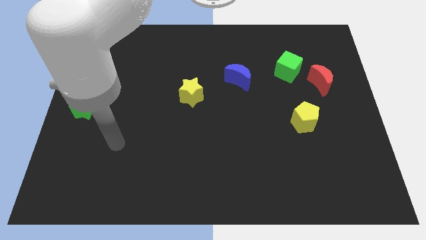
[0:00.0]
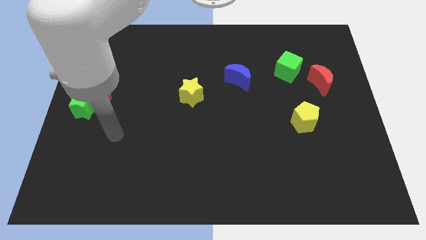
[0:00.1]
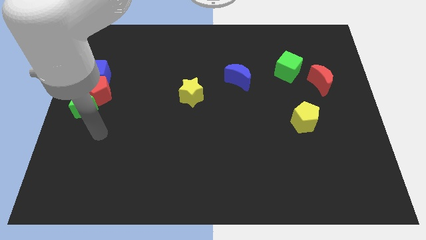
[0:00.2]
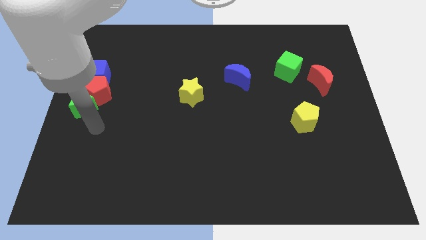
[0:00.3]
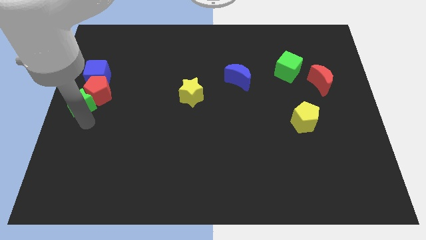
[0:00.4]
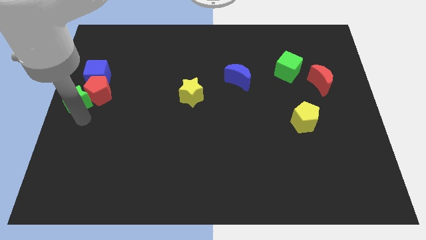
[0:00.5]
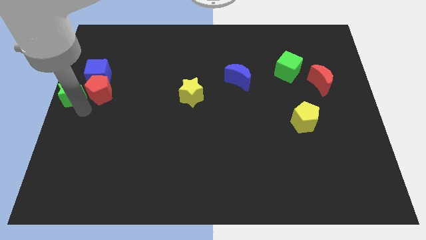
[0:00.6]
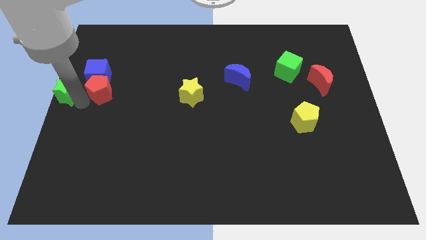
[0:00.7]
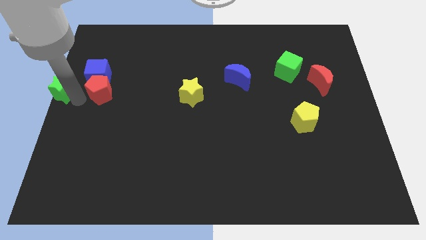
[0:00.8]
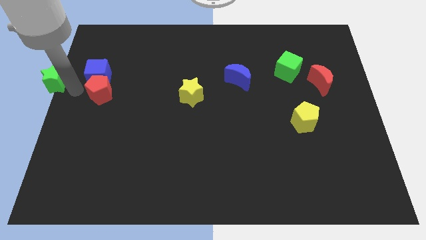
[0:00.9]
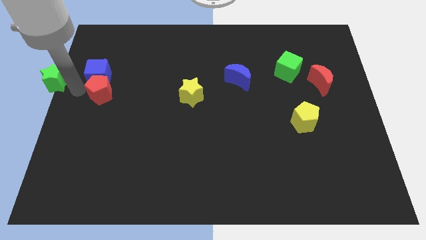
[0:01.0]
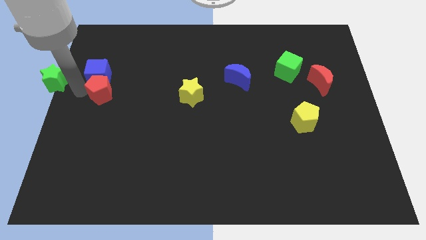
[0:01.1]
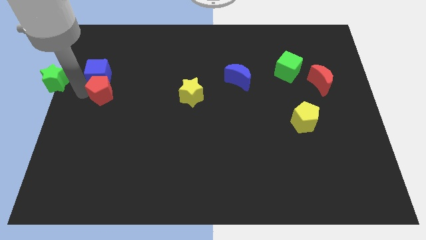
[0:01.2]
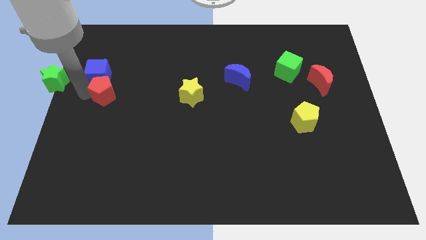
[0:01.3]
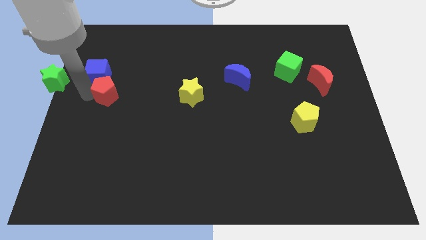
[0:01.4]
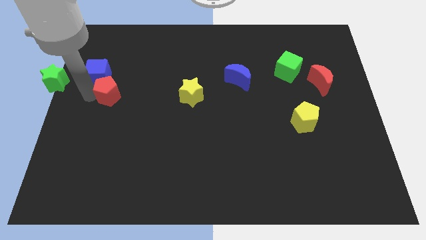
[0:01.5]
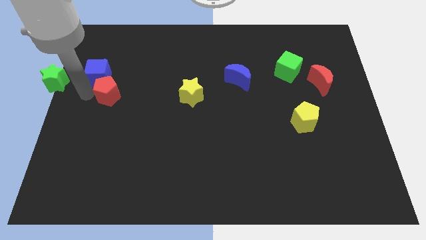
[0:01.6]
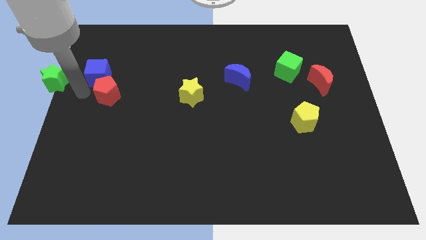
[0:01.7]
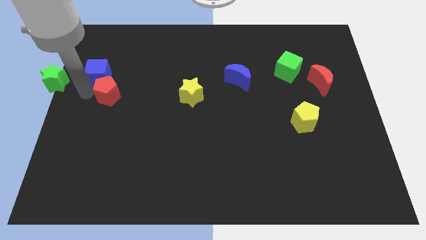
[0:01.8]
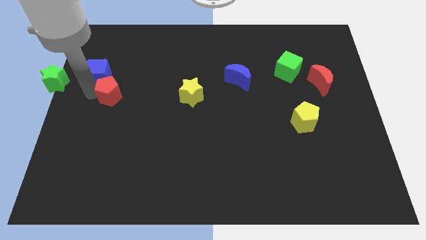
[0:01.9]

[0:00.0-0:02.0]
pull the red pentagon apart from the green star and blue cube

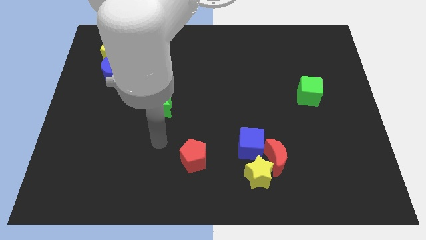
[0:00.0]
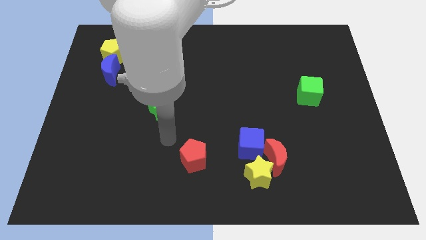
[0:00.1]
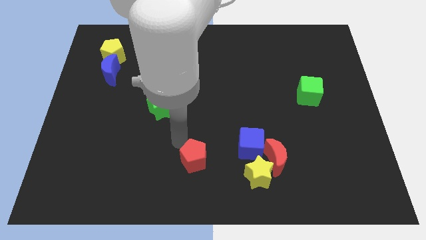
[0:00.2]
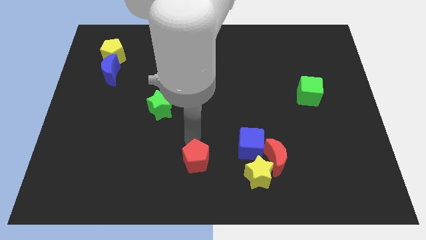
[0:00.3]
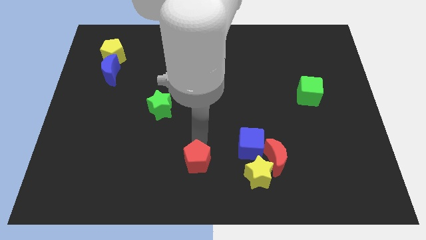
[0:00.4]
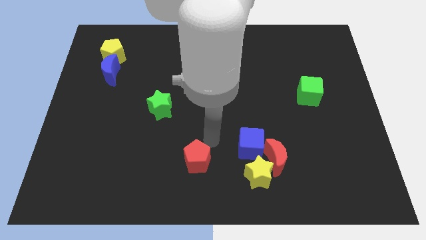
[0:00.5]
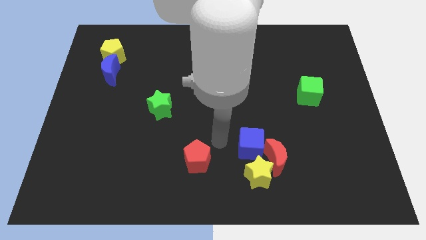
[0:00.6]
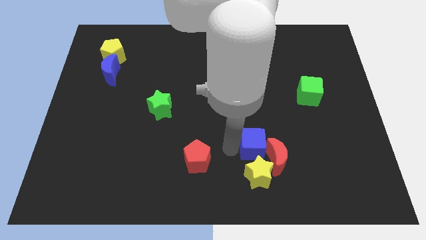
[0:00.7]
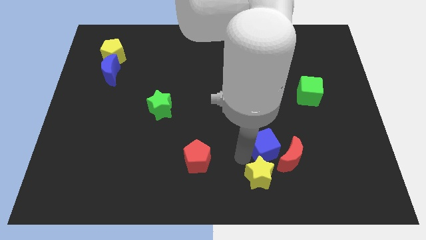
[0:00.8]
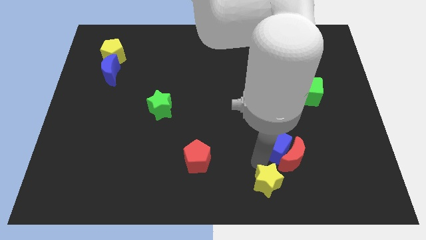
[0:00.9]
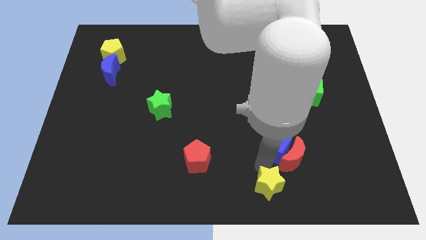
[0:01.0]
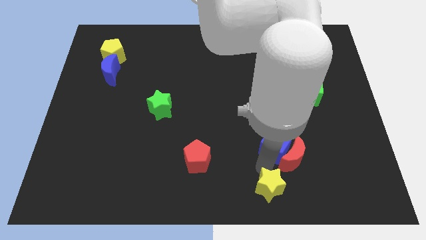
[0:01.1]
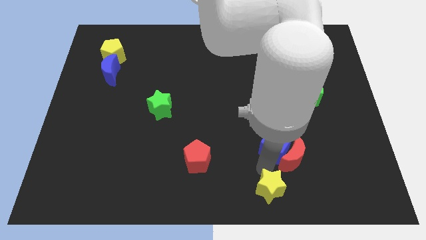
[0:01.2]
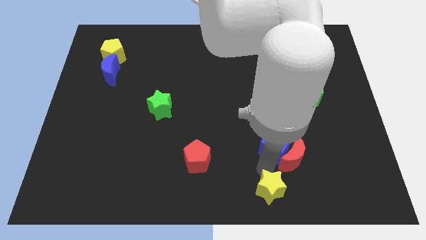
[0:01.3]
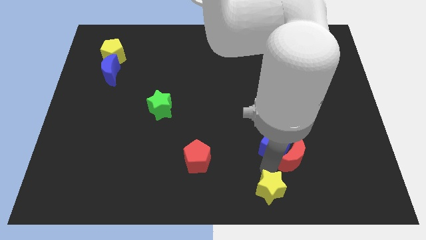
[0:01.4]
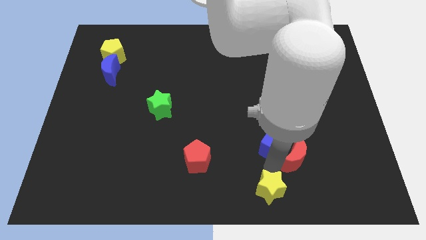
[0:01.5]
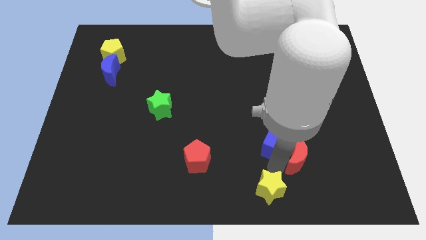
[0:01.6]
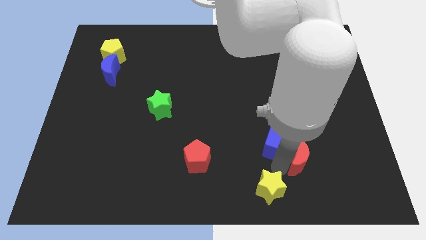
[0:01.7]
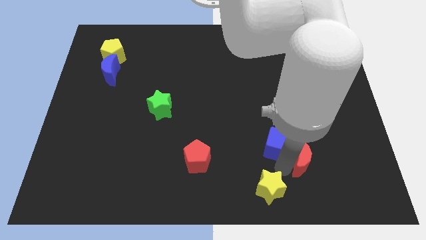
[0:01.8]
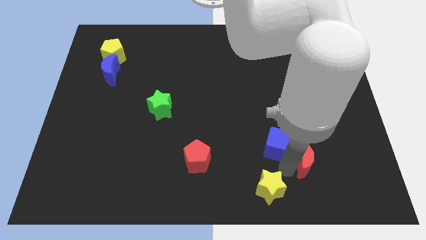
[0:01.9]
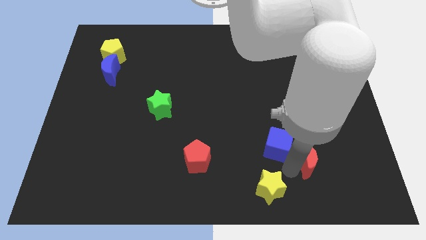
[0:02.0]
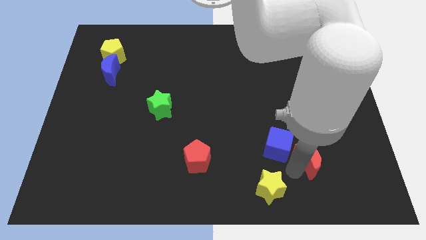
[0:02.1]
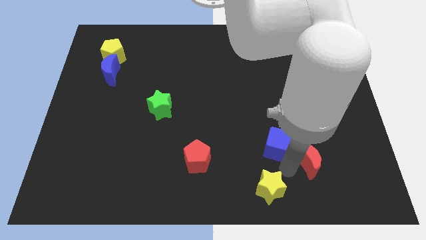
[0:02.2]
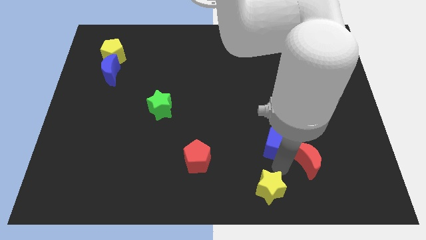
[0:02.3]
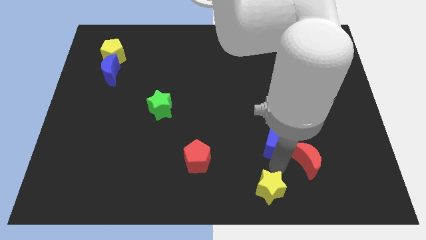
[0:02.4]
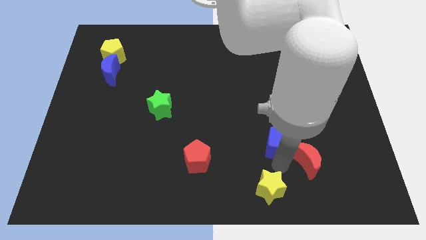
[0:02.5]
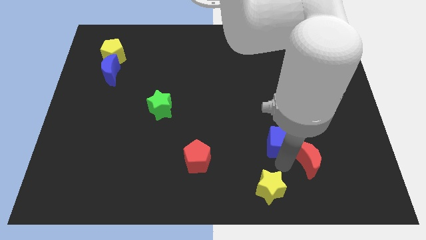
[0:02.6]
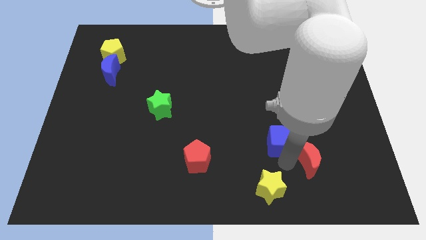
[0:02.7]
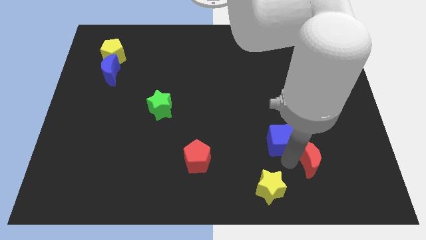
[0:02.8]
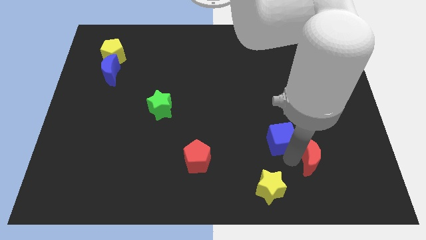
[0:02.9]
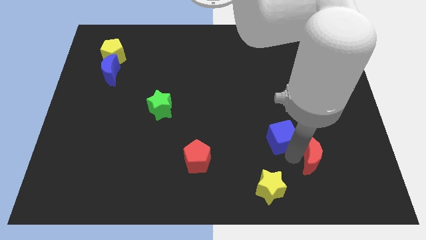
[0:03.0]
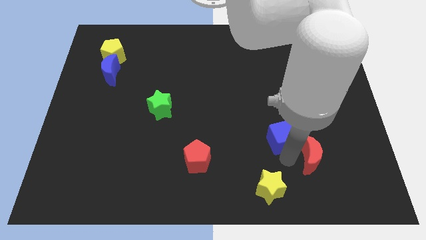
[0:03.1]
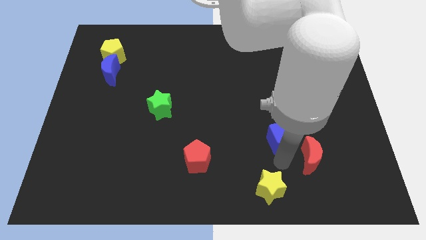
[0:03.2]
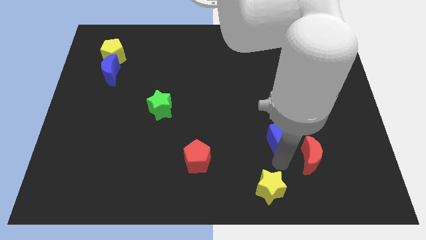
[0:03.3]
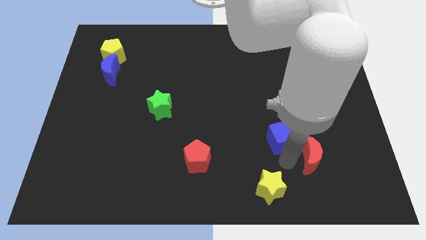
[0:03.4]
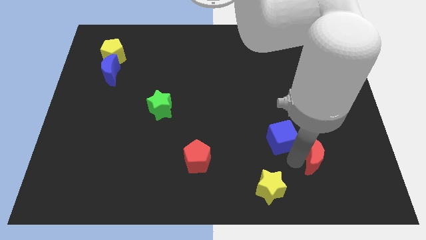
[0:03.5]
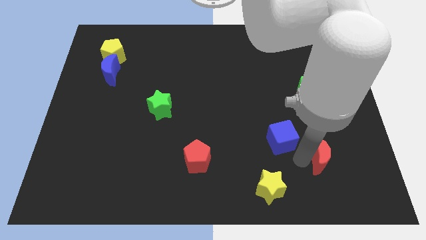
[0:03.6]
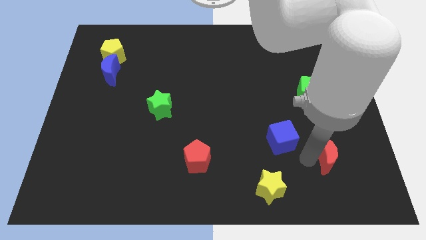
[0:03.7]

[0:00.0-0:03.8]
move the red moon away from the yellow star and blue cube

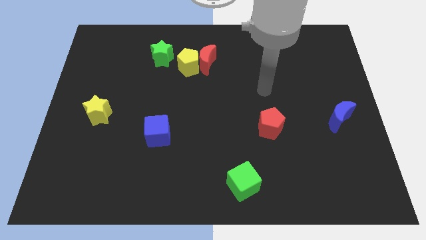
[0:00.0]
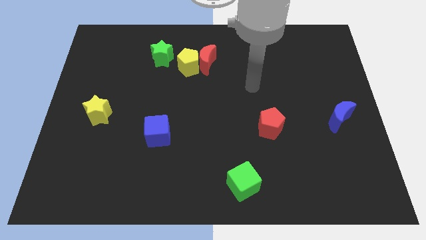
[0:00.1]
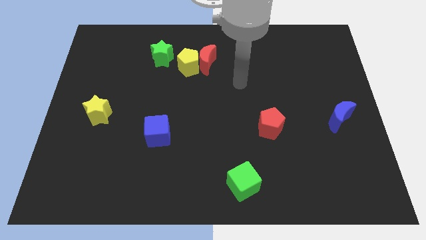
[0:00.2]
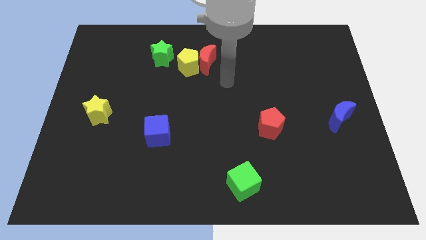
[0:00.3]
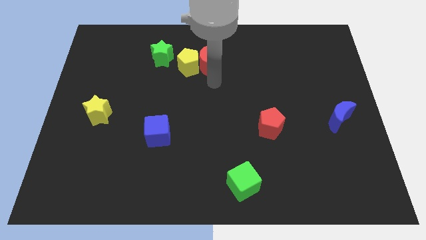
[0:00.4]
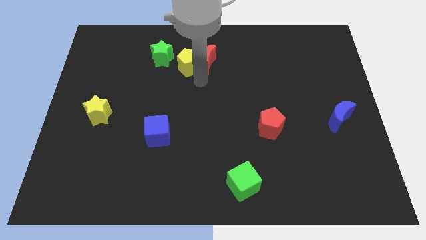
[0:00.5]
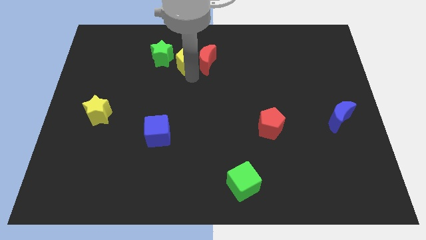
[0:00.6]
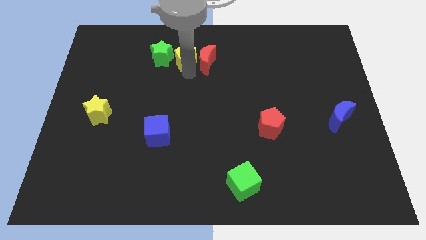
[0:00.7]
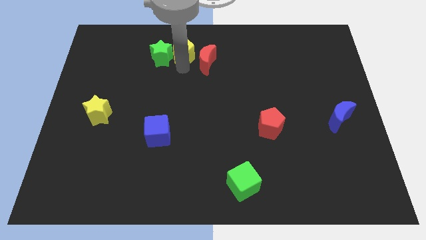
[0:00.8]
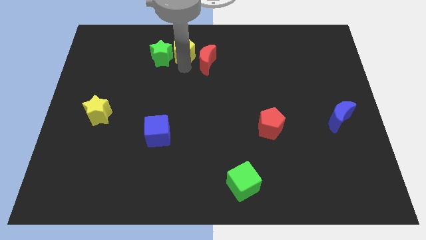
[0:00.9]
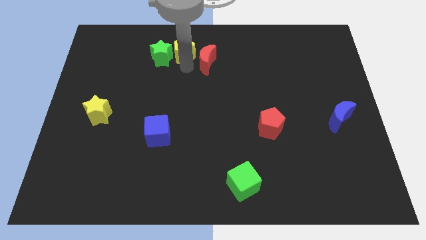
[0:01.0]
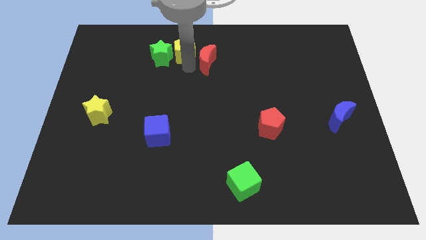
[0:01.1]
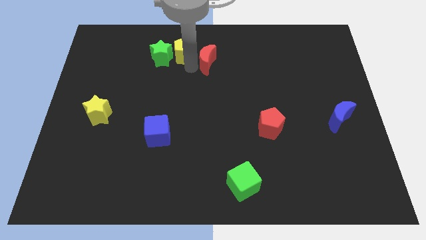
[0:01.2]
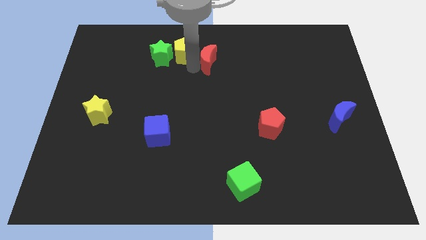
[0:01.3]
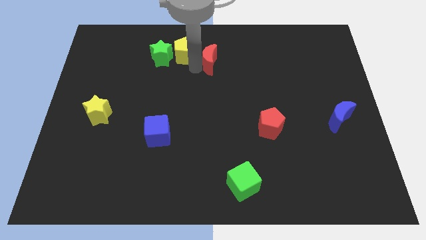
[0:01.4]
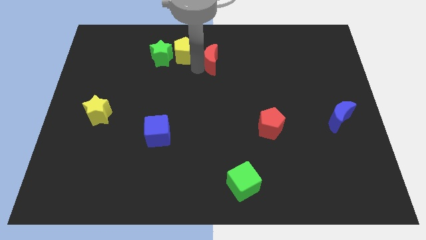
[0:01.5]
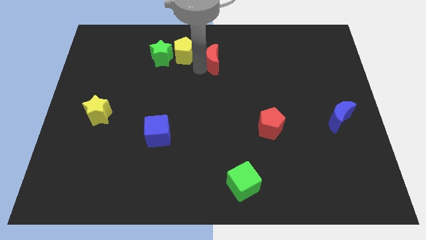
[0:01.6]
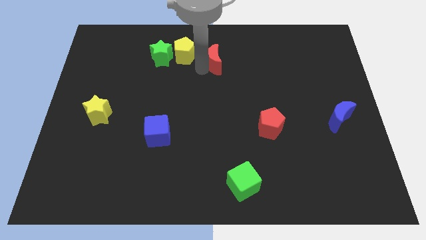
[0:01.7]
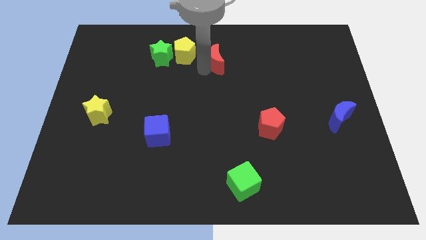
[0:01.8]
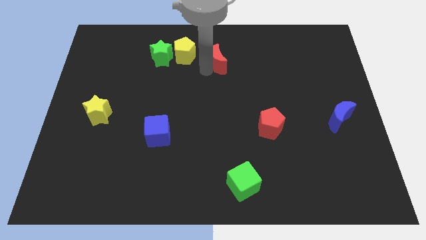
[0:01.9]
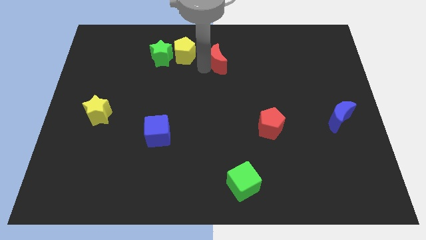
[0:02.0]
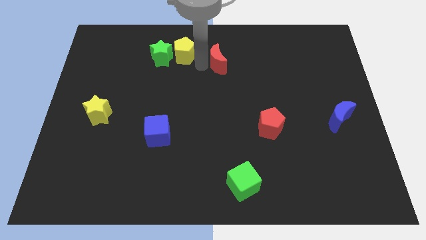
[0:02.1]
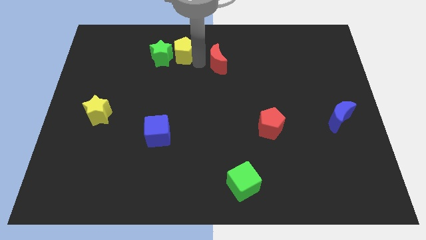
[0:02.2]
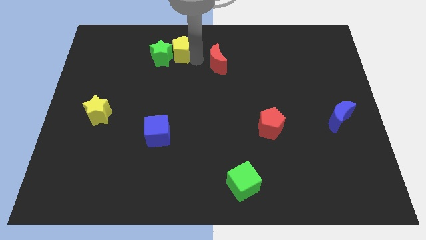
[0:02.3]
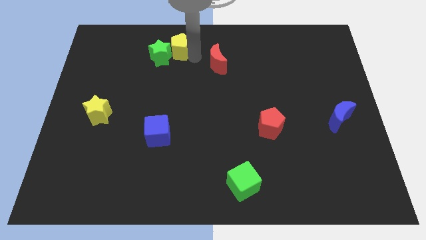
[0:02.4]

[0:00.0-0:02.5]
pull the red moon apart from the yellow pentagon

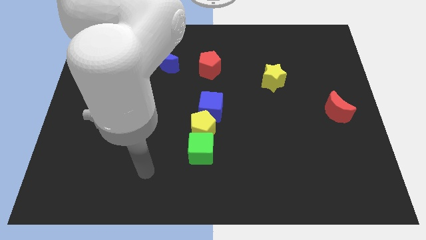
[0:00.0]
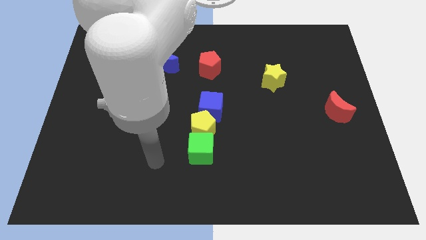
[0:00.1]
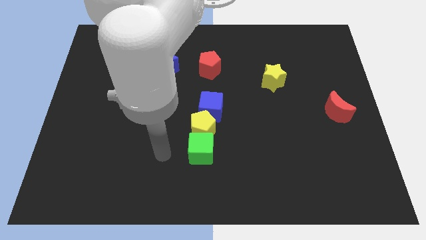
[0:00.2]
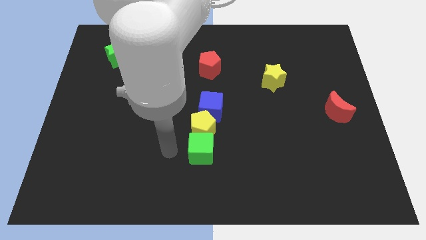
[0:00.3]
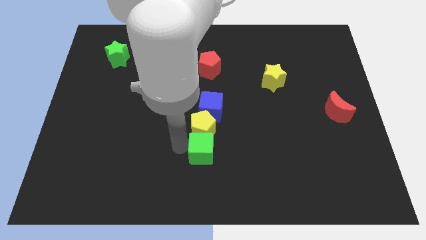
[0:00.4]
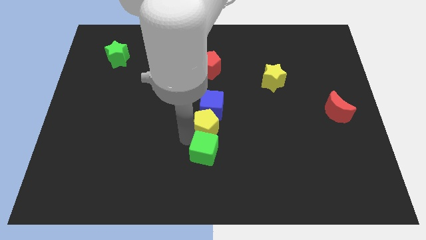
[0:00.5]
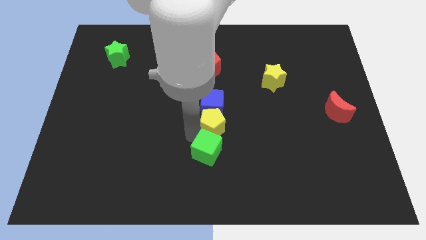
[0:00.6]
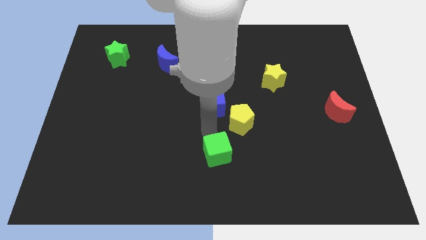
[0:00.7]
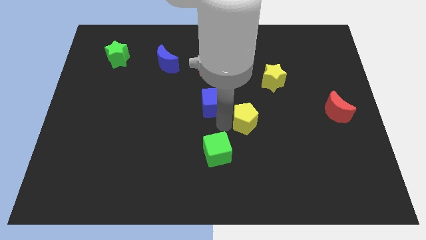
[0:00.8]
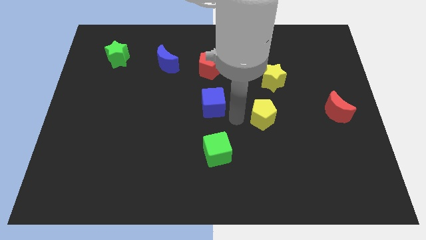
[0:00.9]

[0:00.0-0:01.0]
move the blue cube away from the yellow pentagon
